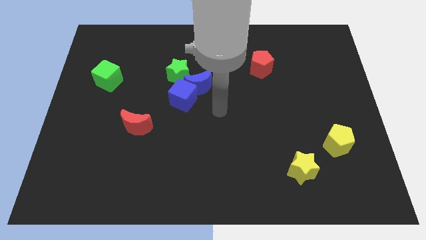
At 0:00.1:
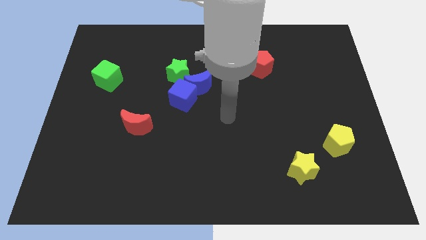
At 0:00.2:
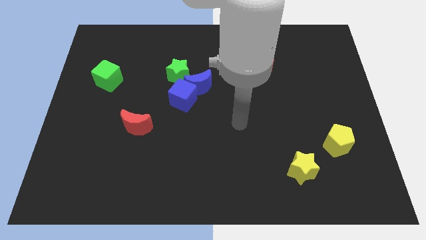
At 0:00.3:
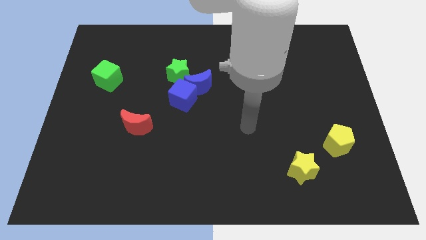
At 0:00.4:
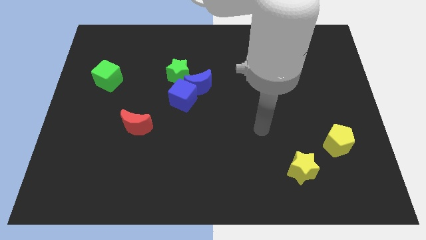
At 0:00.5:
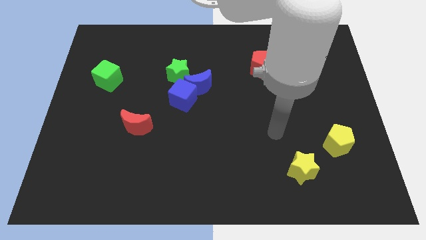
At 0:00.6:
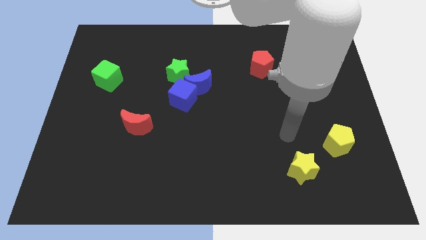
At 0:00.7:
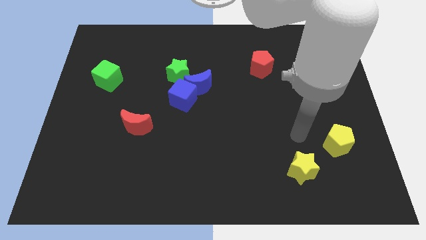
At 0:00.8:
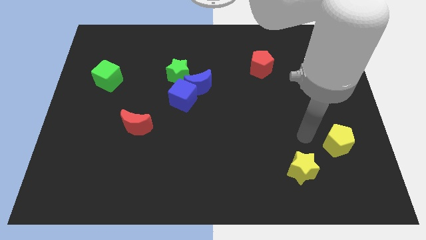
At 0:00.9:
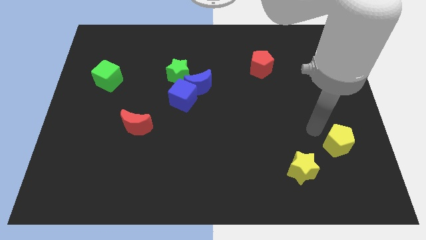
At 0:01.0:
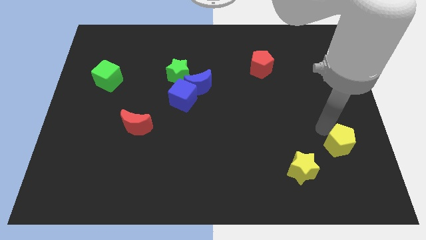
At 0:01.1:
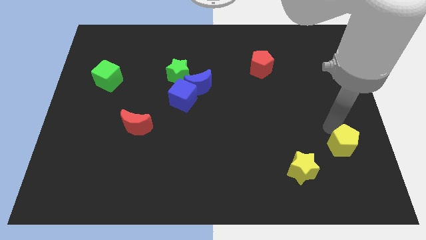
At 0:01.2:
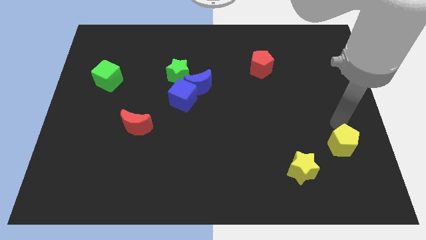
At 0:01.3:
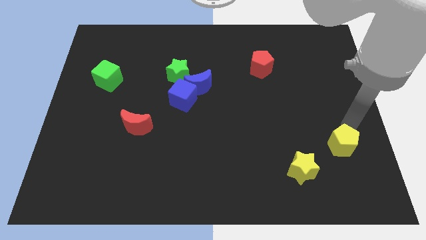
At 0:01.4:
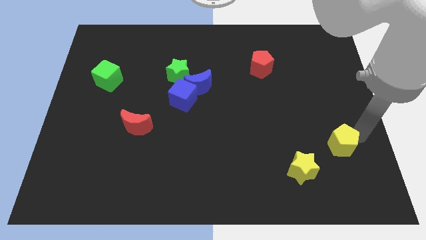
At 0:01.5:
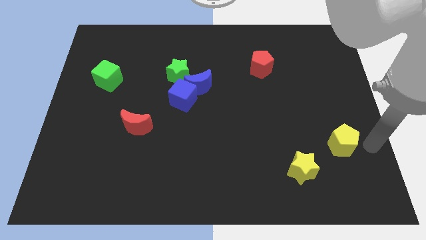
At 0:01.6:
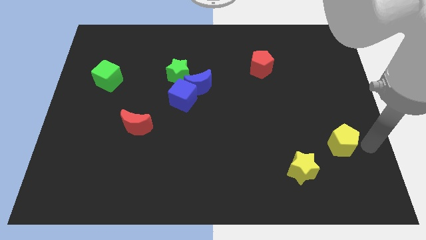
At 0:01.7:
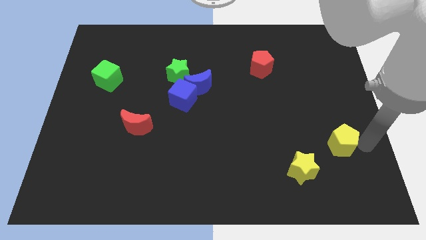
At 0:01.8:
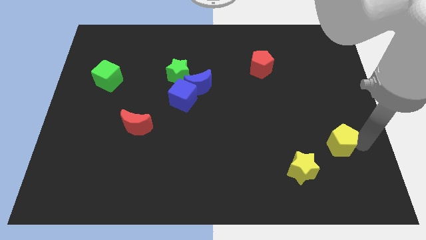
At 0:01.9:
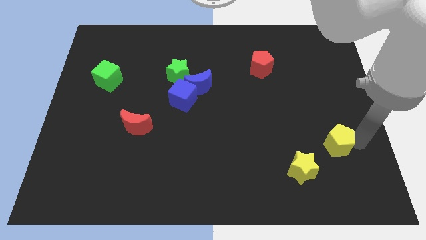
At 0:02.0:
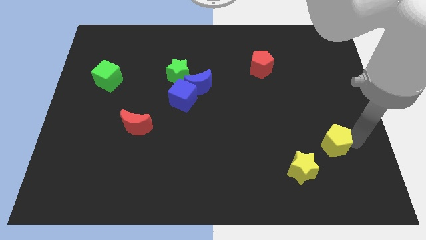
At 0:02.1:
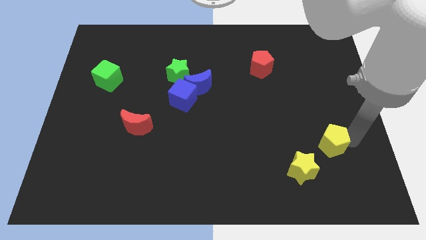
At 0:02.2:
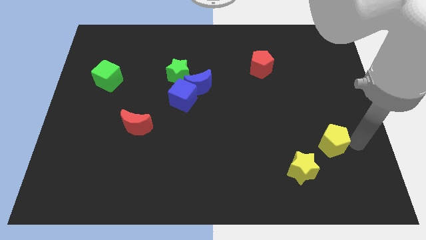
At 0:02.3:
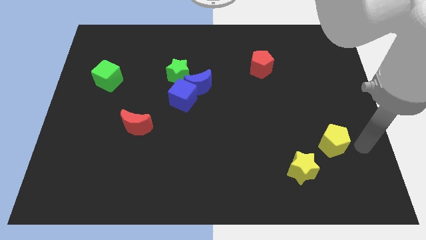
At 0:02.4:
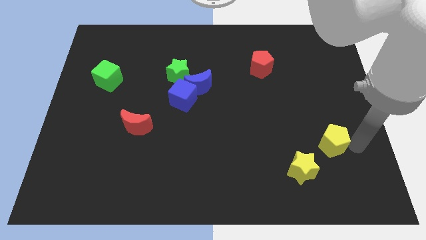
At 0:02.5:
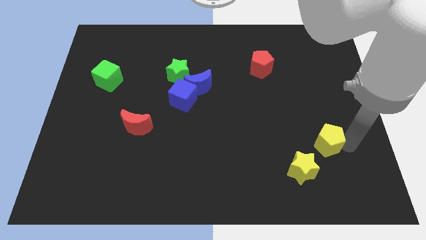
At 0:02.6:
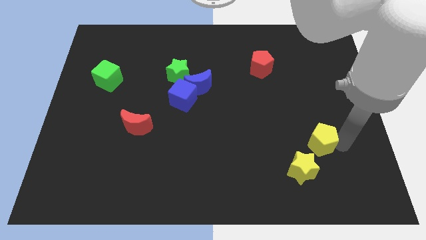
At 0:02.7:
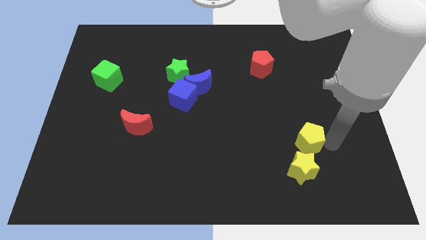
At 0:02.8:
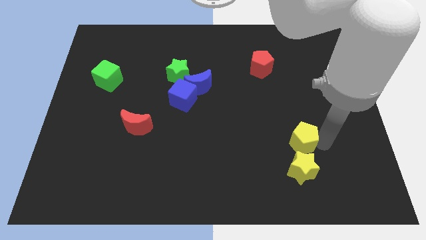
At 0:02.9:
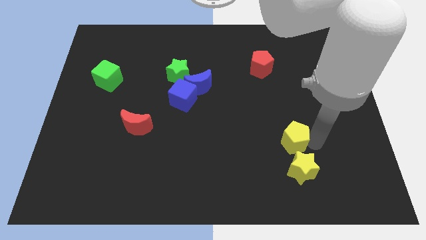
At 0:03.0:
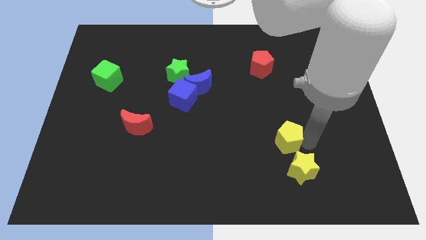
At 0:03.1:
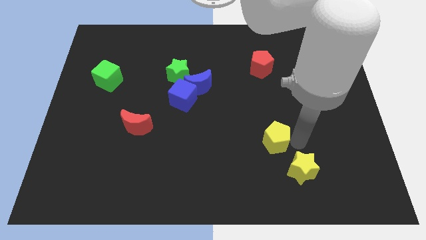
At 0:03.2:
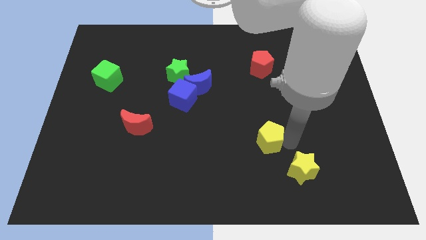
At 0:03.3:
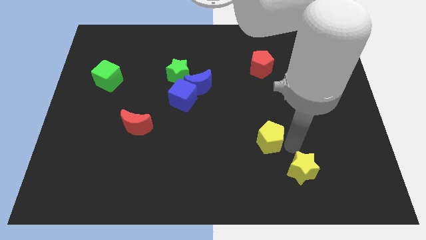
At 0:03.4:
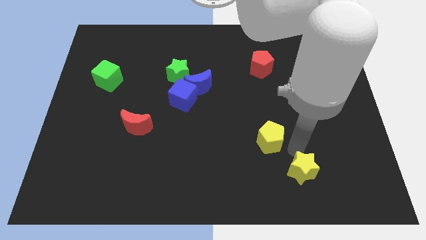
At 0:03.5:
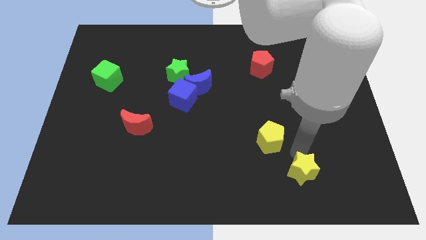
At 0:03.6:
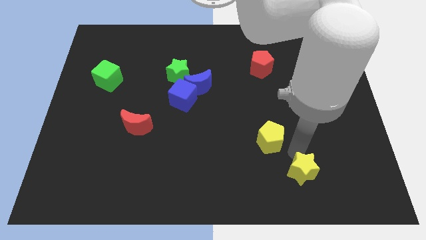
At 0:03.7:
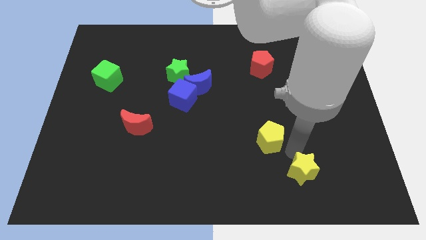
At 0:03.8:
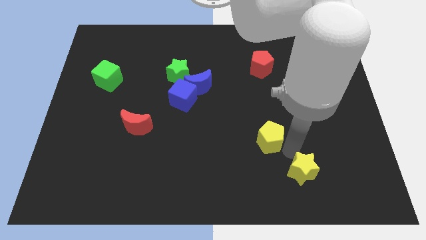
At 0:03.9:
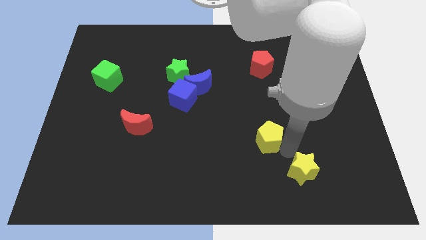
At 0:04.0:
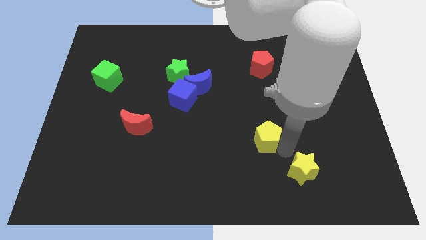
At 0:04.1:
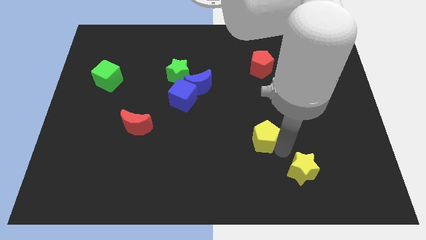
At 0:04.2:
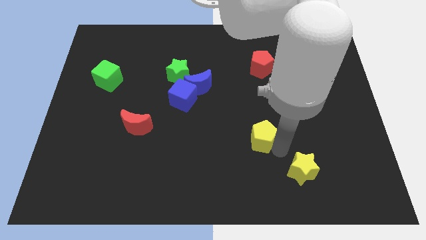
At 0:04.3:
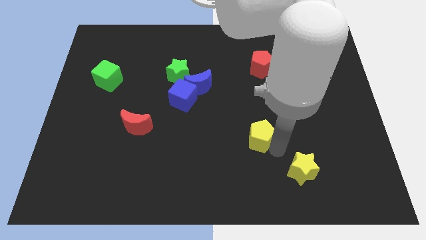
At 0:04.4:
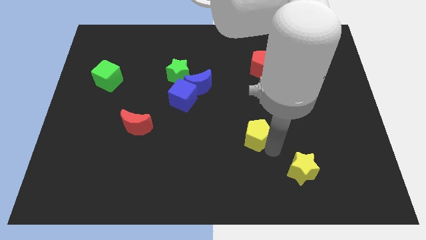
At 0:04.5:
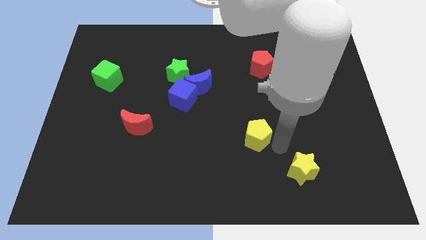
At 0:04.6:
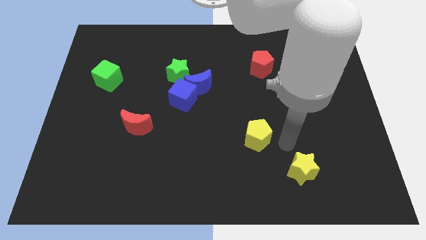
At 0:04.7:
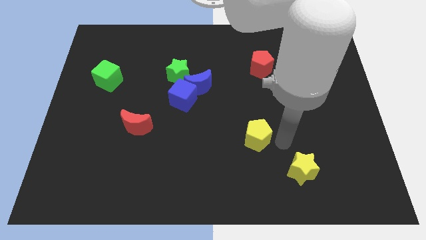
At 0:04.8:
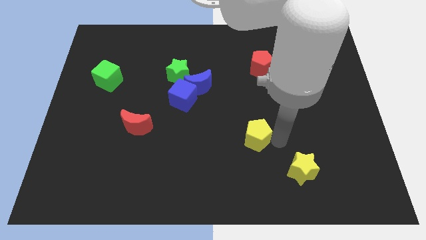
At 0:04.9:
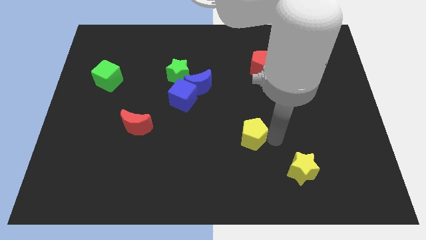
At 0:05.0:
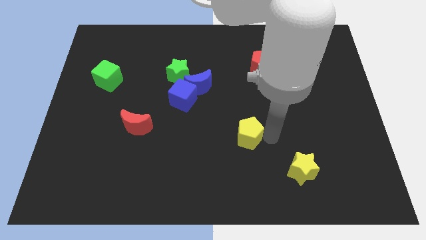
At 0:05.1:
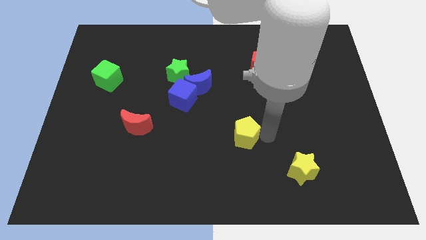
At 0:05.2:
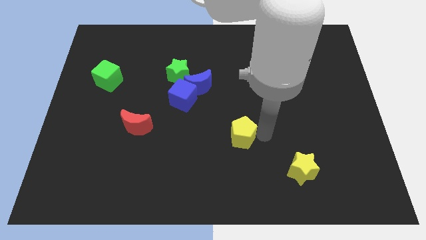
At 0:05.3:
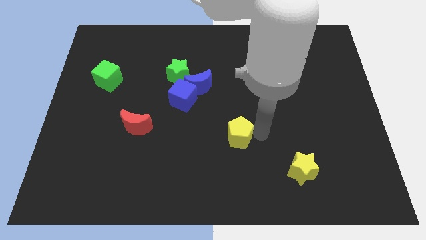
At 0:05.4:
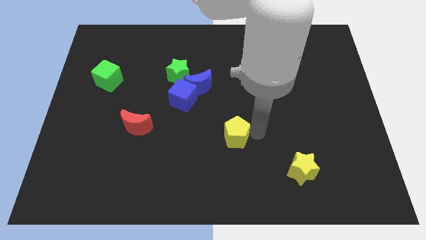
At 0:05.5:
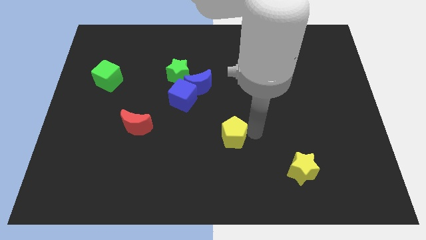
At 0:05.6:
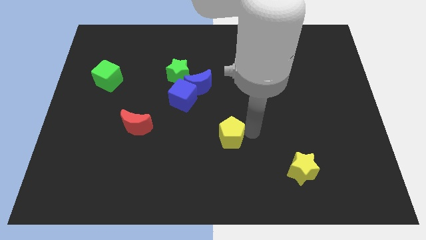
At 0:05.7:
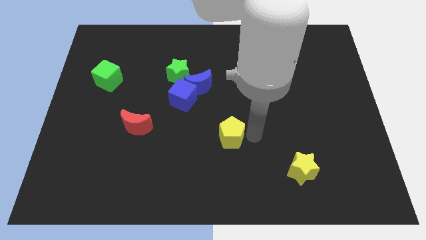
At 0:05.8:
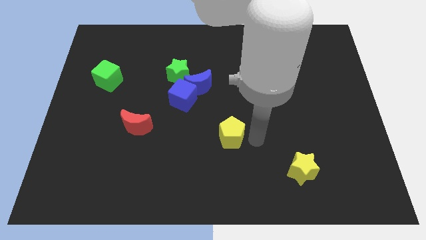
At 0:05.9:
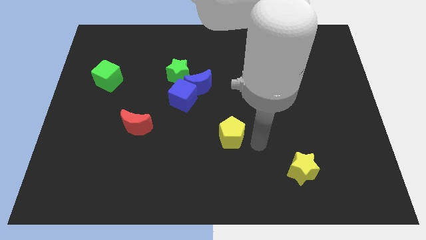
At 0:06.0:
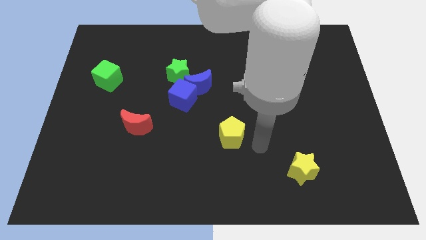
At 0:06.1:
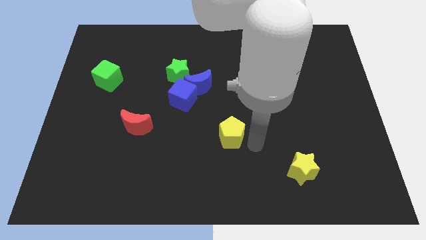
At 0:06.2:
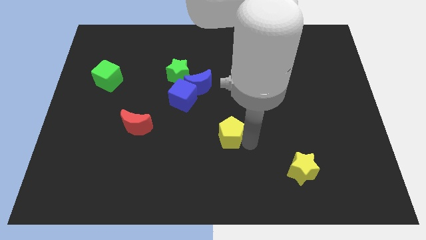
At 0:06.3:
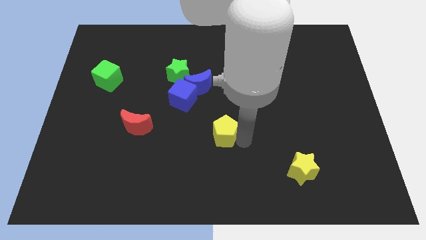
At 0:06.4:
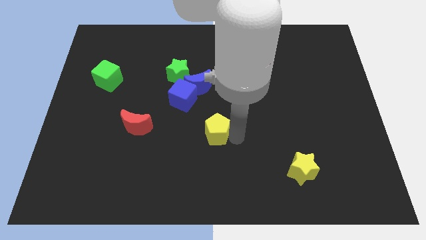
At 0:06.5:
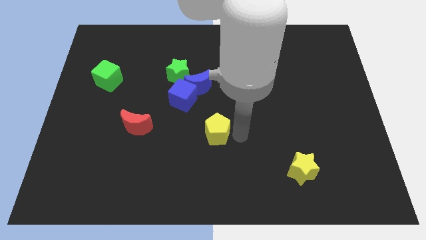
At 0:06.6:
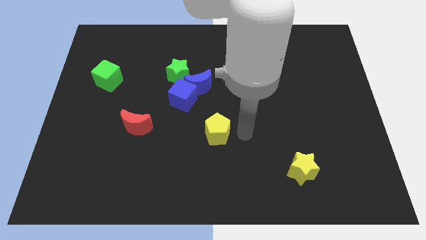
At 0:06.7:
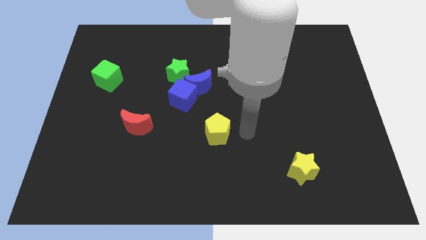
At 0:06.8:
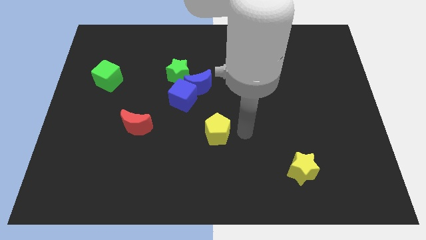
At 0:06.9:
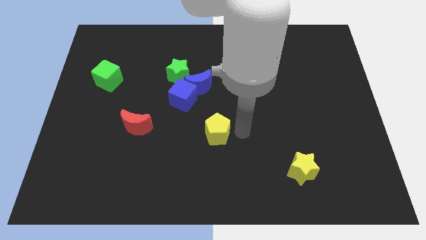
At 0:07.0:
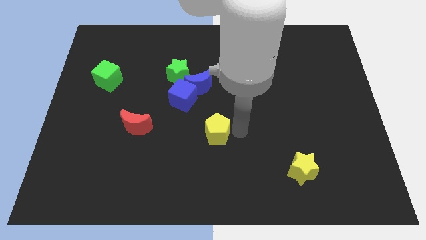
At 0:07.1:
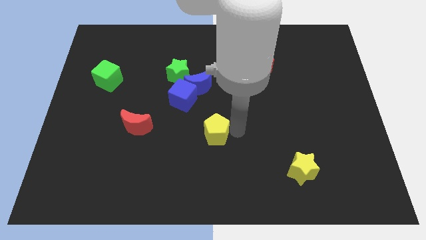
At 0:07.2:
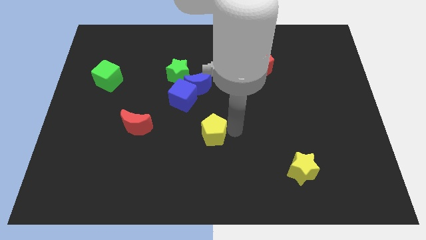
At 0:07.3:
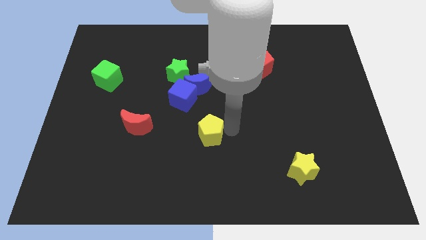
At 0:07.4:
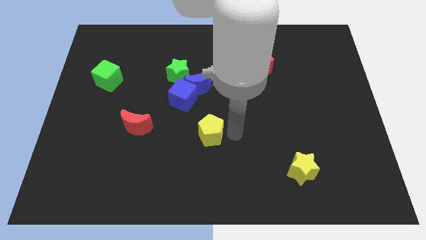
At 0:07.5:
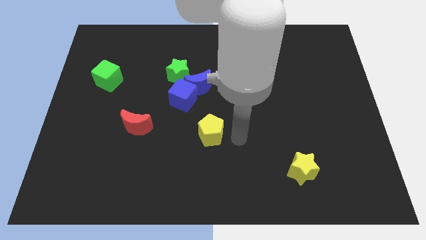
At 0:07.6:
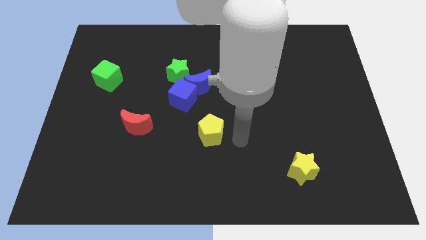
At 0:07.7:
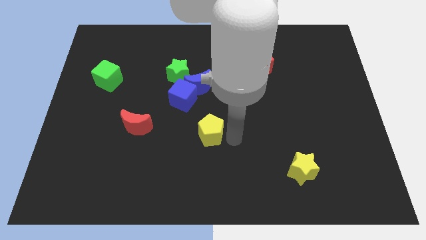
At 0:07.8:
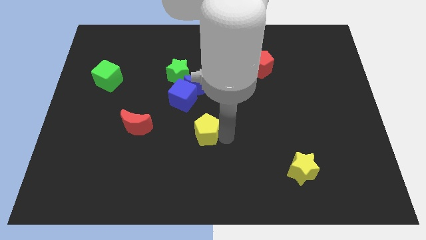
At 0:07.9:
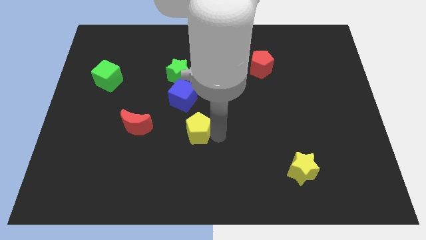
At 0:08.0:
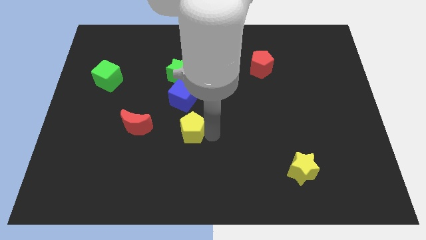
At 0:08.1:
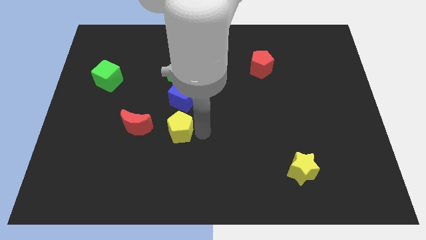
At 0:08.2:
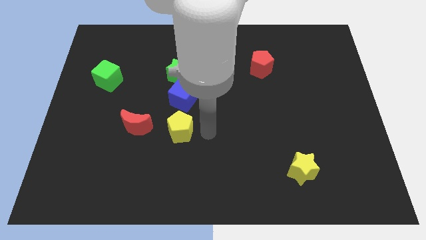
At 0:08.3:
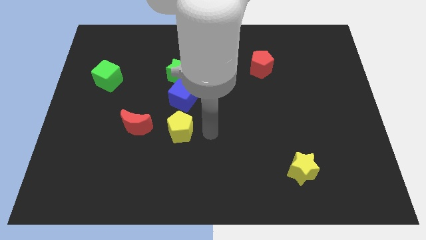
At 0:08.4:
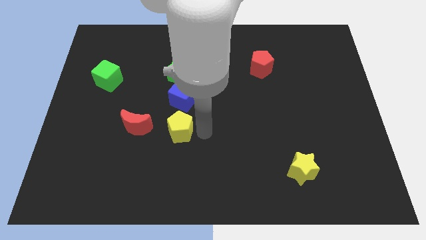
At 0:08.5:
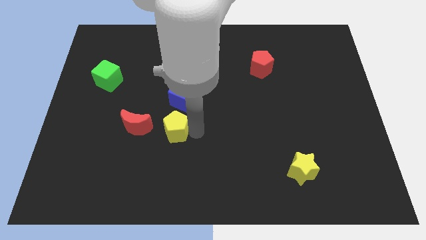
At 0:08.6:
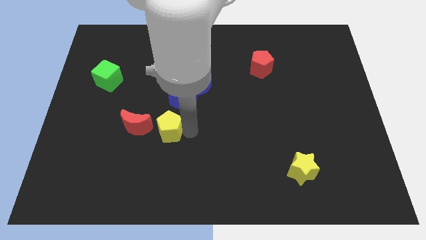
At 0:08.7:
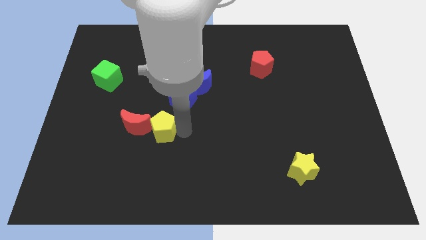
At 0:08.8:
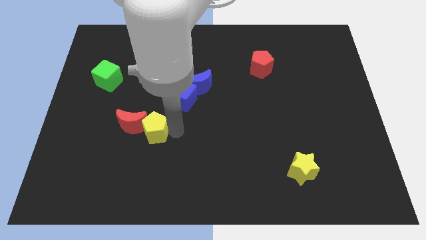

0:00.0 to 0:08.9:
move the yellow pentagon close to the red moon
